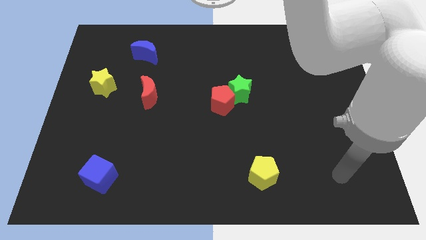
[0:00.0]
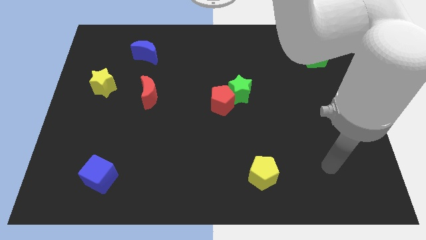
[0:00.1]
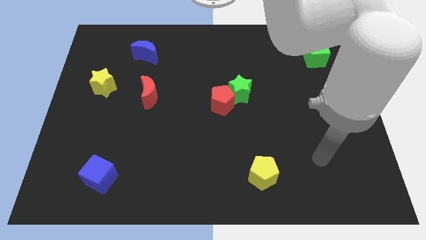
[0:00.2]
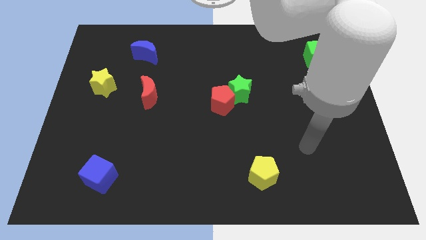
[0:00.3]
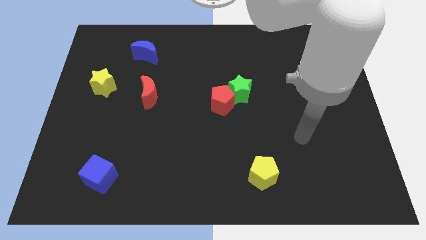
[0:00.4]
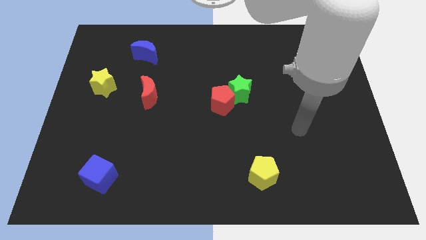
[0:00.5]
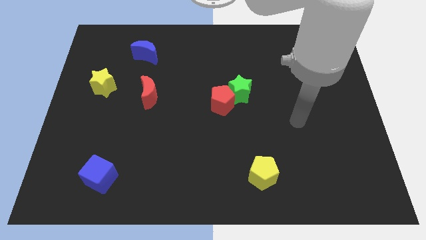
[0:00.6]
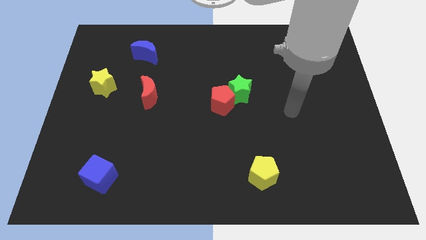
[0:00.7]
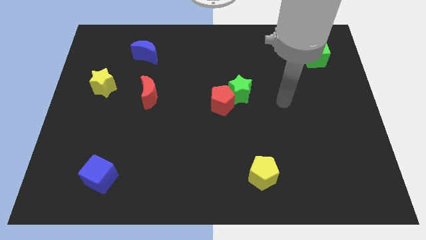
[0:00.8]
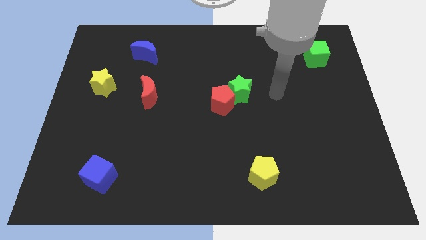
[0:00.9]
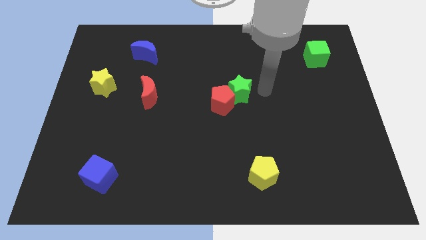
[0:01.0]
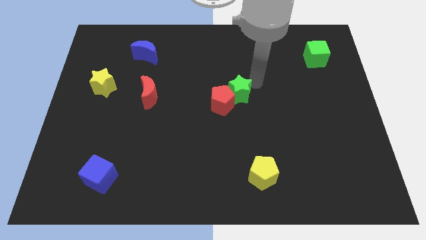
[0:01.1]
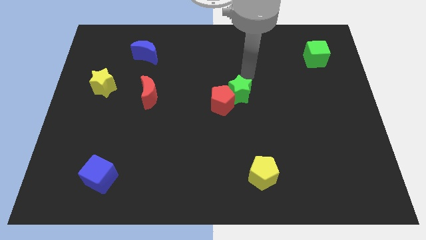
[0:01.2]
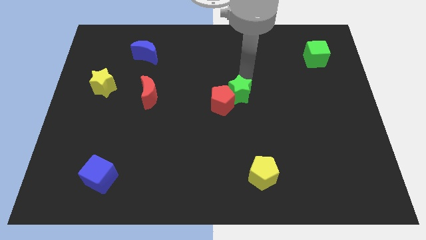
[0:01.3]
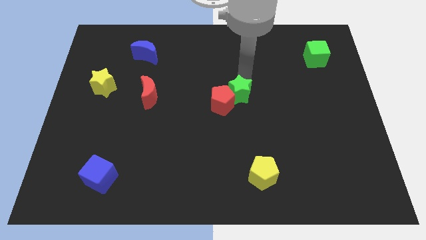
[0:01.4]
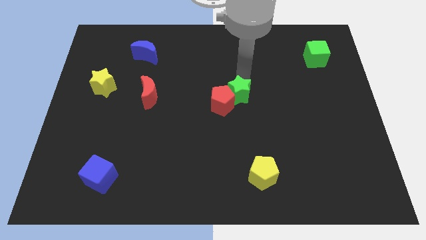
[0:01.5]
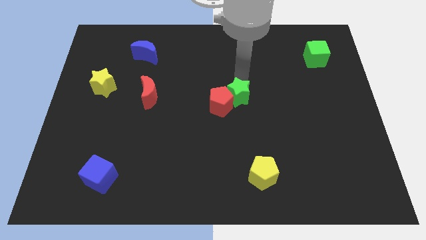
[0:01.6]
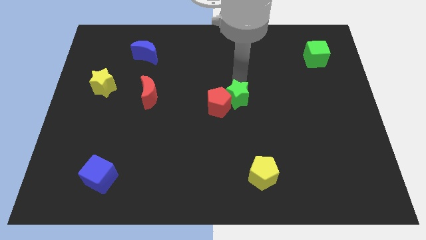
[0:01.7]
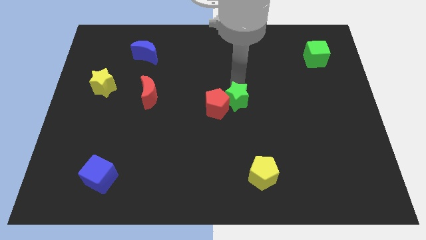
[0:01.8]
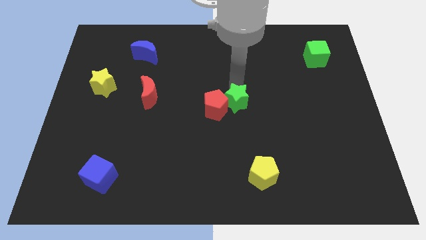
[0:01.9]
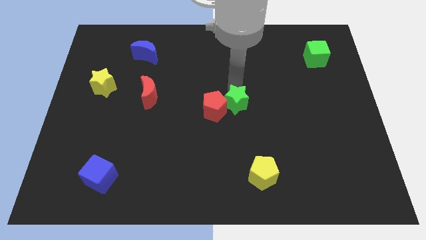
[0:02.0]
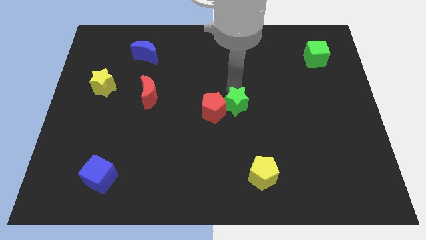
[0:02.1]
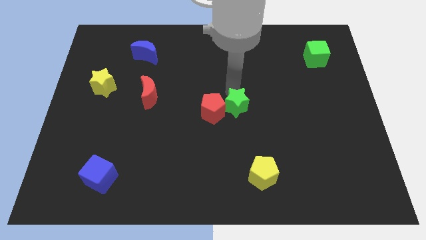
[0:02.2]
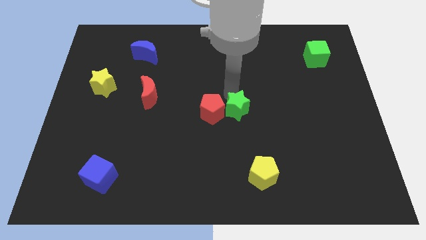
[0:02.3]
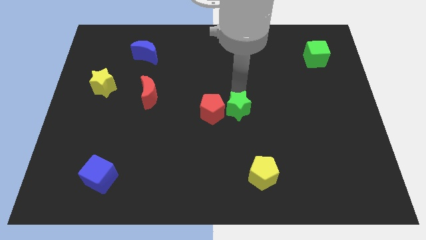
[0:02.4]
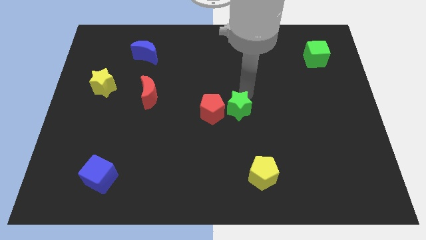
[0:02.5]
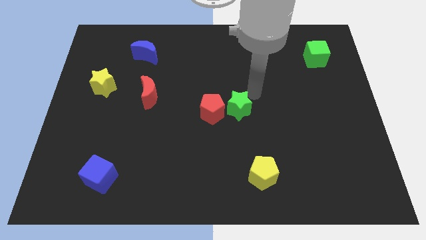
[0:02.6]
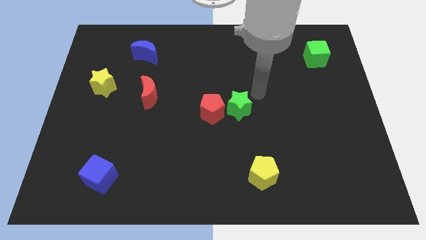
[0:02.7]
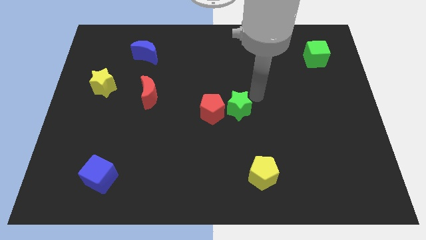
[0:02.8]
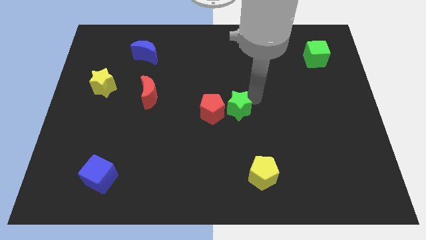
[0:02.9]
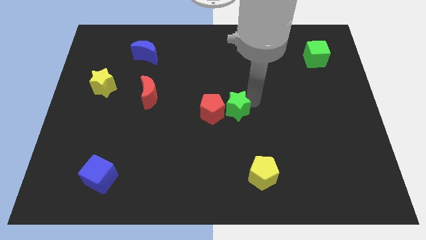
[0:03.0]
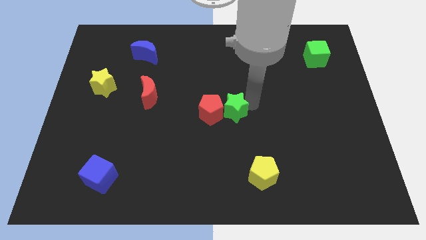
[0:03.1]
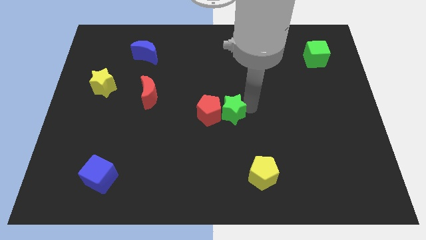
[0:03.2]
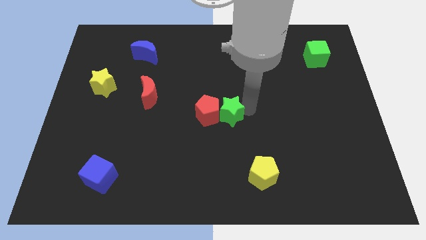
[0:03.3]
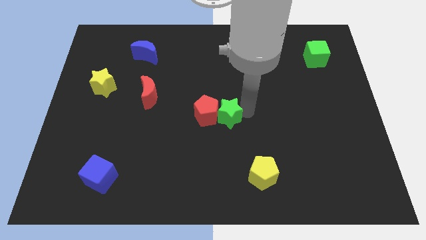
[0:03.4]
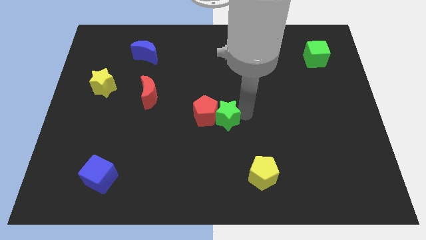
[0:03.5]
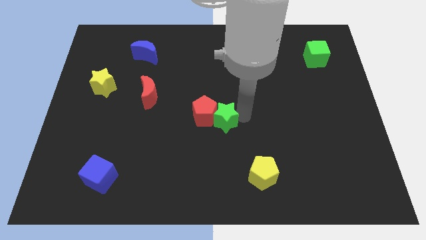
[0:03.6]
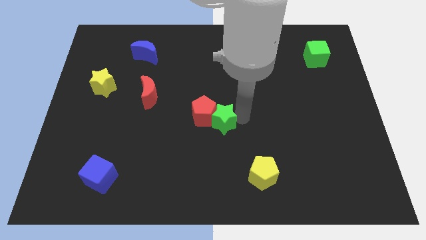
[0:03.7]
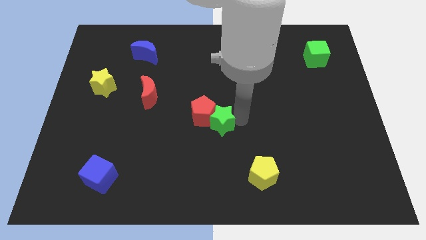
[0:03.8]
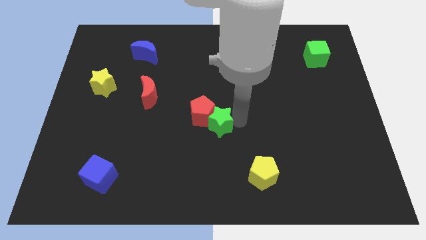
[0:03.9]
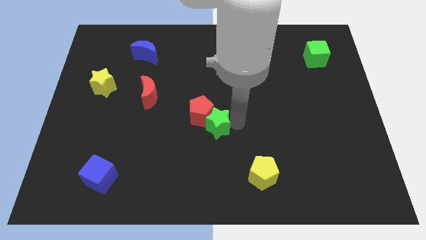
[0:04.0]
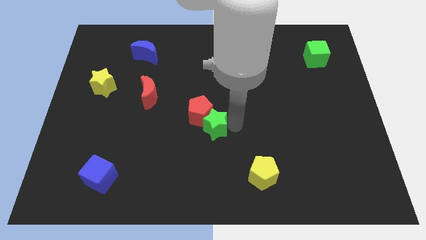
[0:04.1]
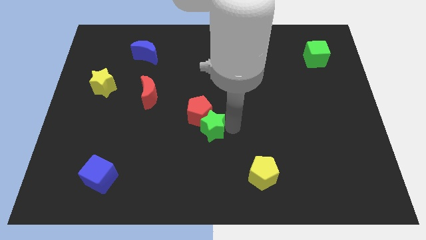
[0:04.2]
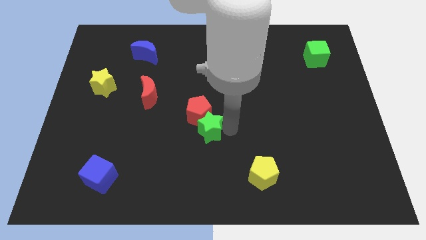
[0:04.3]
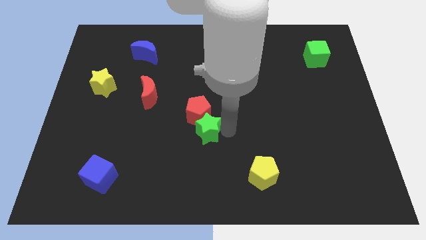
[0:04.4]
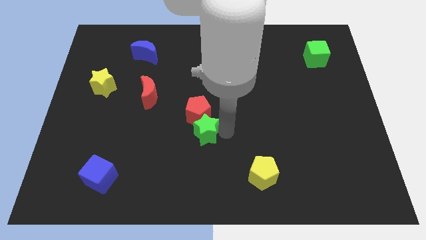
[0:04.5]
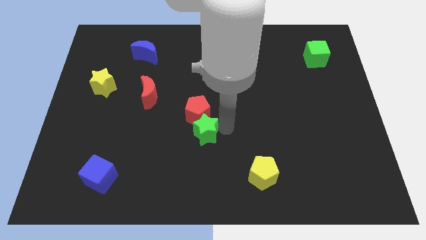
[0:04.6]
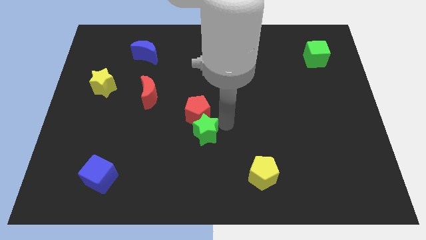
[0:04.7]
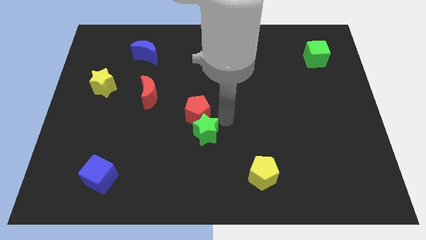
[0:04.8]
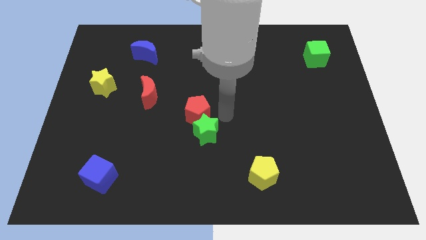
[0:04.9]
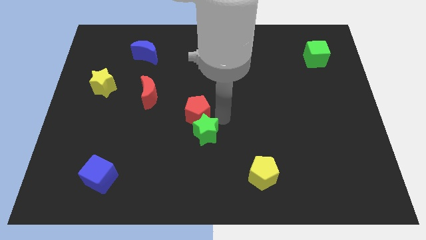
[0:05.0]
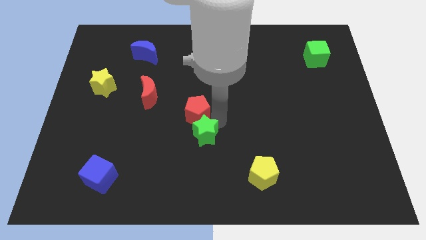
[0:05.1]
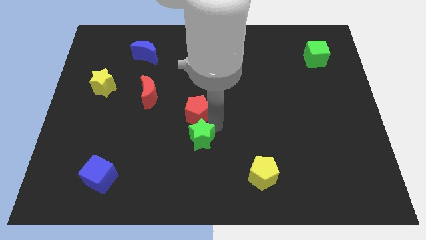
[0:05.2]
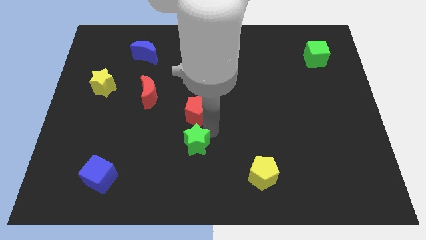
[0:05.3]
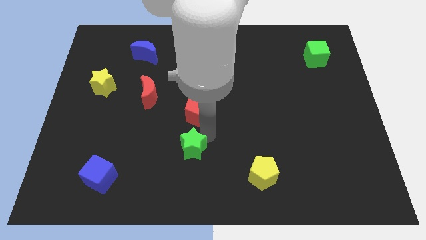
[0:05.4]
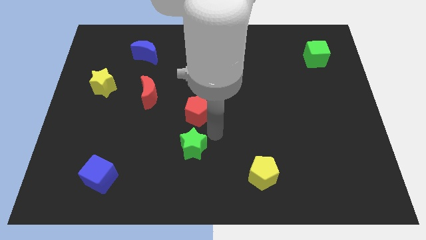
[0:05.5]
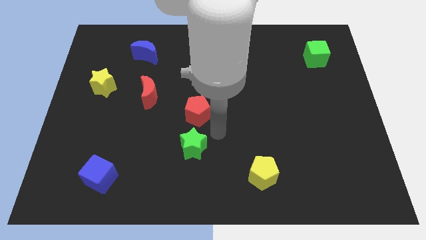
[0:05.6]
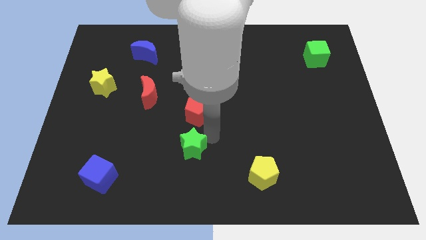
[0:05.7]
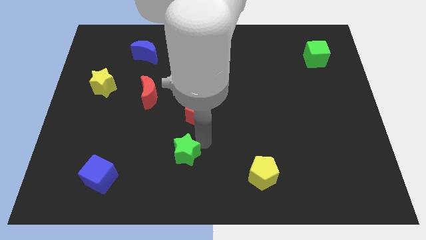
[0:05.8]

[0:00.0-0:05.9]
move the green star diagonally downwards and to the left

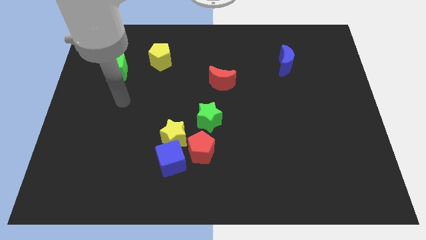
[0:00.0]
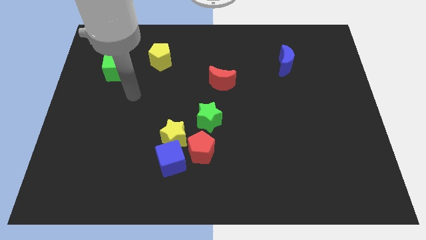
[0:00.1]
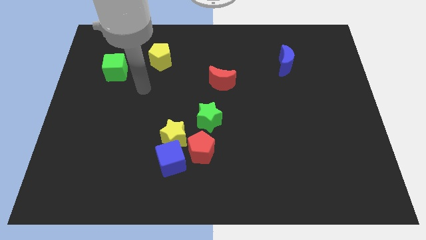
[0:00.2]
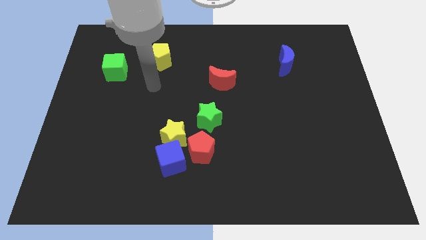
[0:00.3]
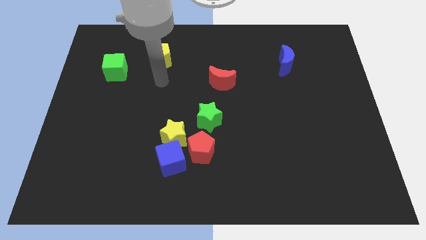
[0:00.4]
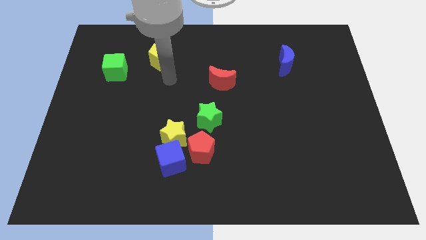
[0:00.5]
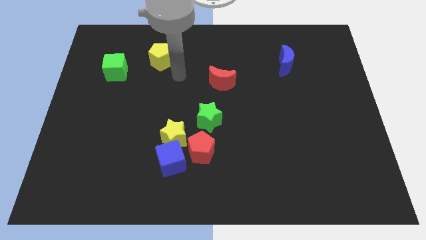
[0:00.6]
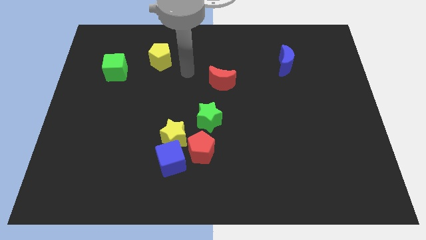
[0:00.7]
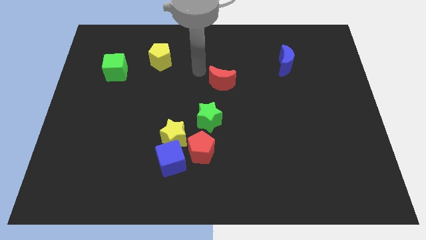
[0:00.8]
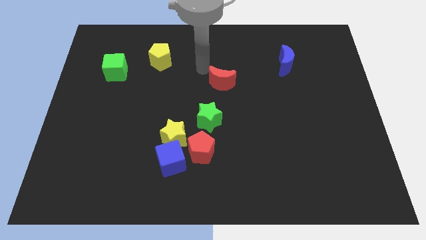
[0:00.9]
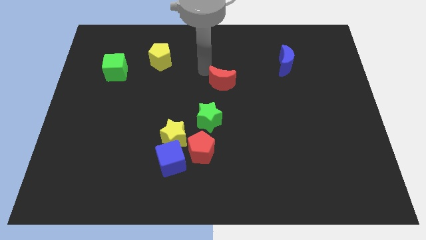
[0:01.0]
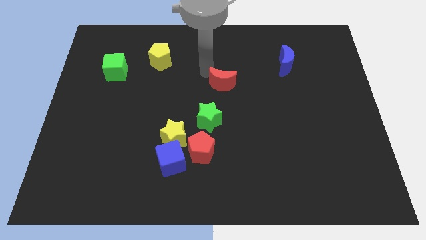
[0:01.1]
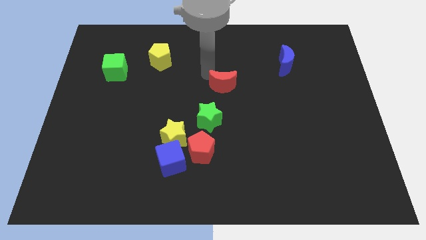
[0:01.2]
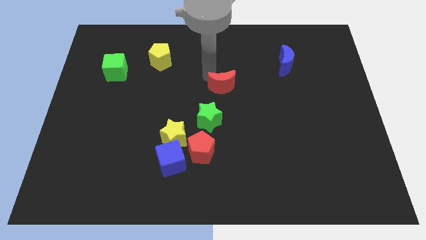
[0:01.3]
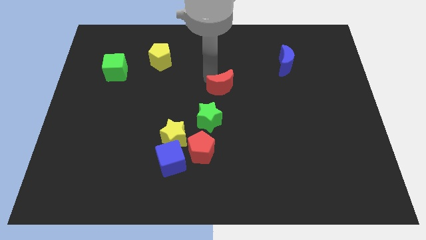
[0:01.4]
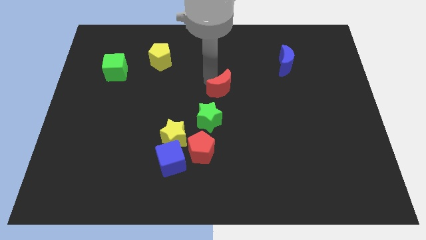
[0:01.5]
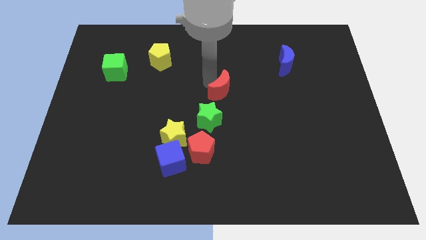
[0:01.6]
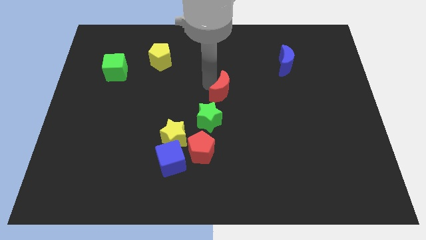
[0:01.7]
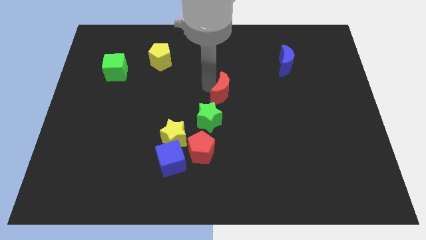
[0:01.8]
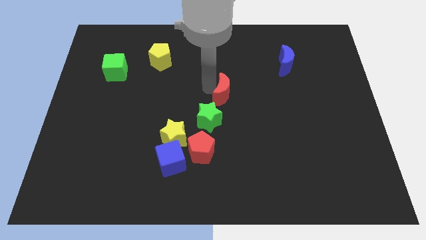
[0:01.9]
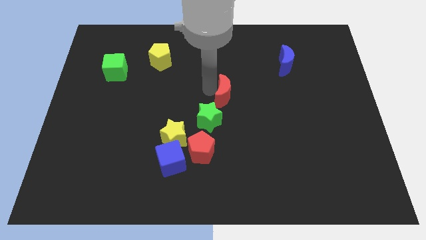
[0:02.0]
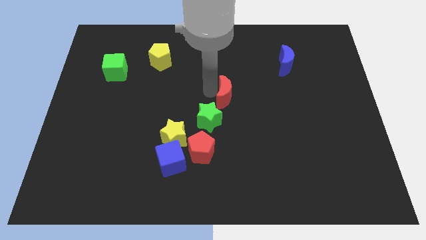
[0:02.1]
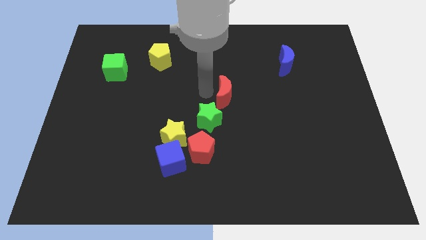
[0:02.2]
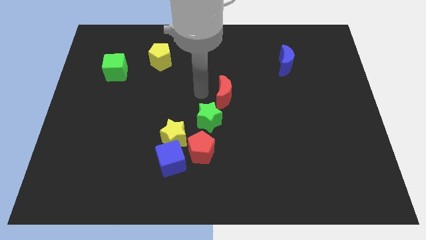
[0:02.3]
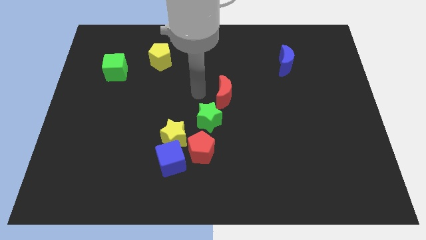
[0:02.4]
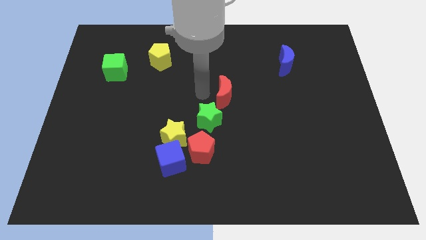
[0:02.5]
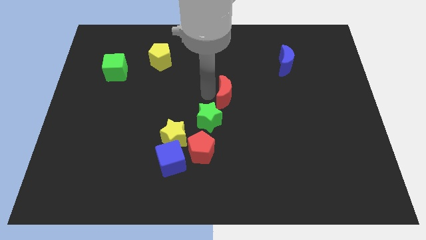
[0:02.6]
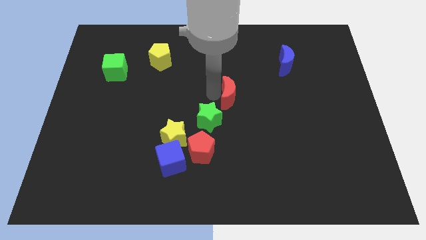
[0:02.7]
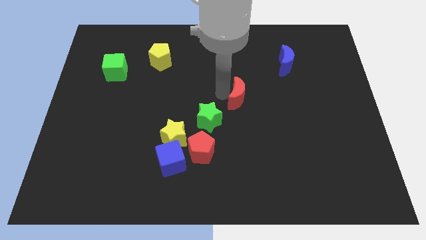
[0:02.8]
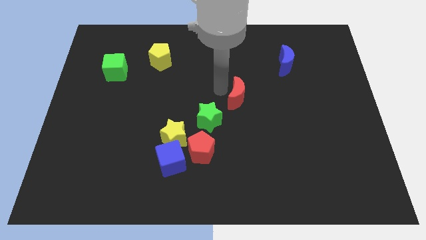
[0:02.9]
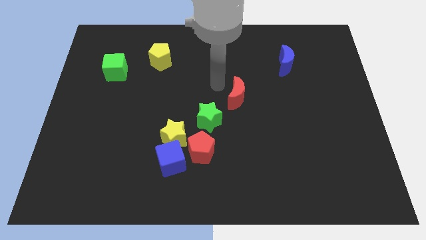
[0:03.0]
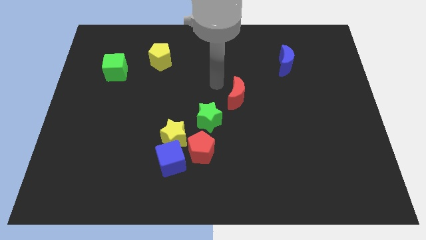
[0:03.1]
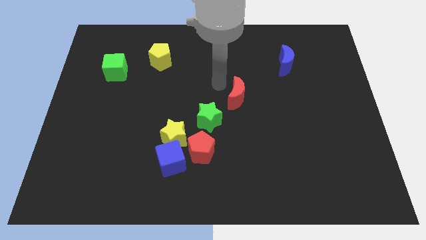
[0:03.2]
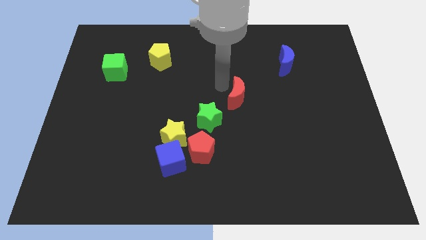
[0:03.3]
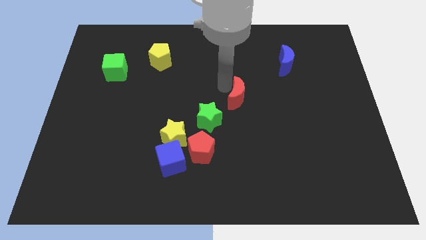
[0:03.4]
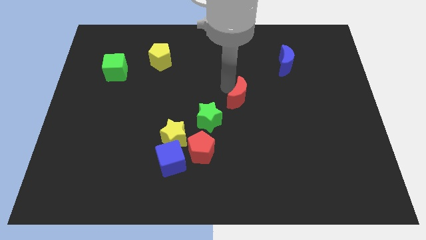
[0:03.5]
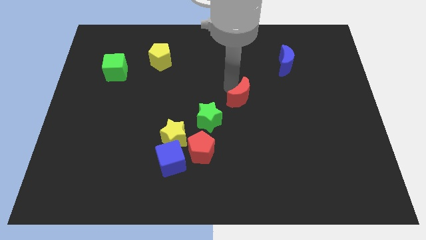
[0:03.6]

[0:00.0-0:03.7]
slightly push the red moon down and to the right
